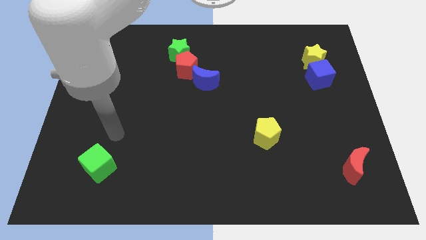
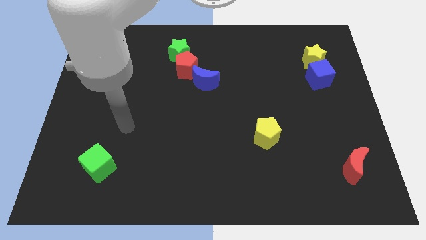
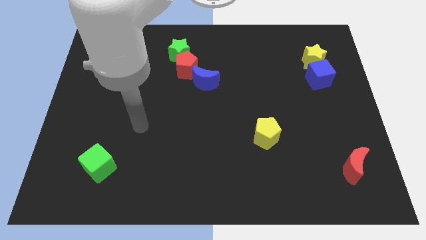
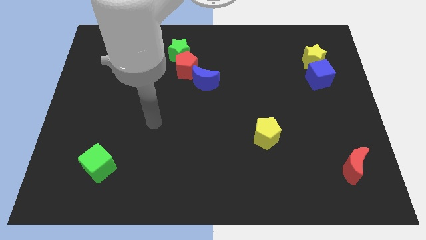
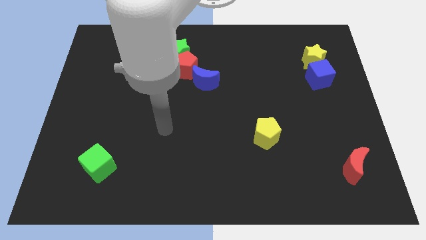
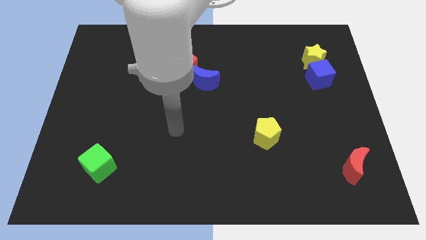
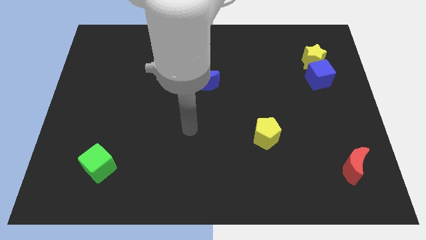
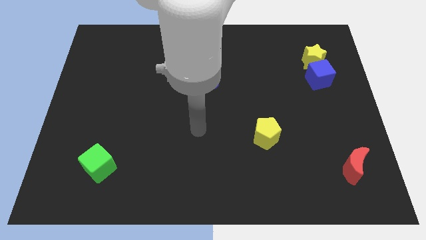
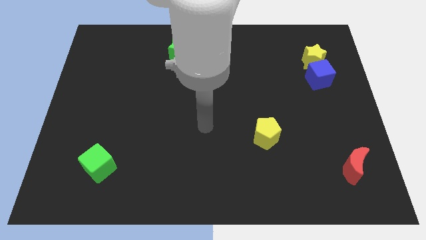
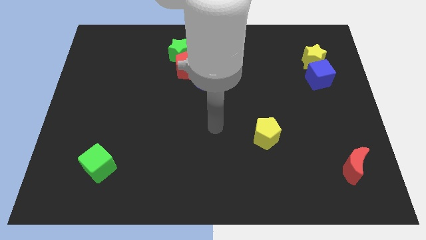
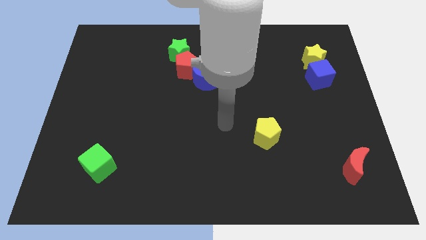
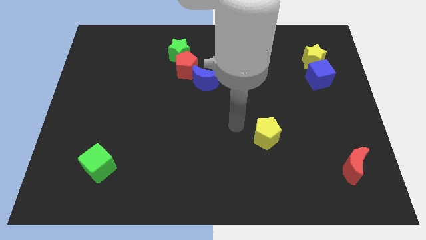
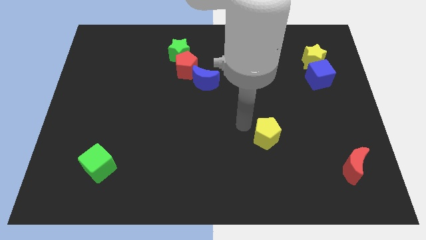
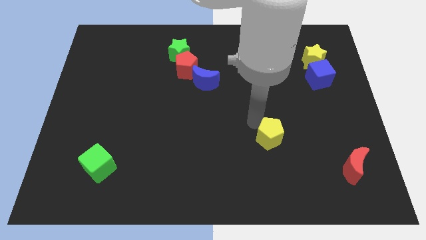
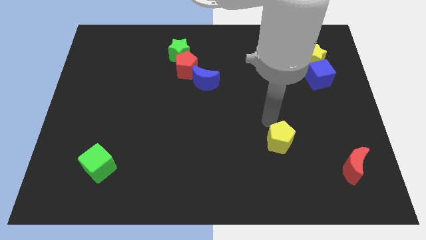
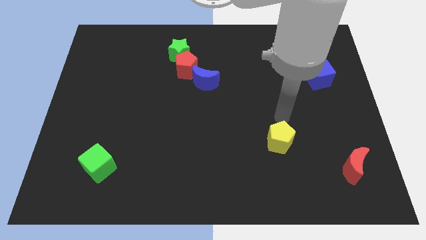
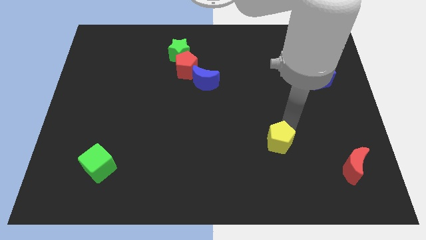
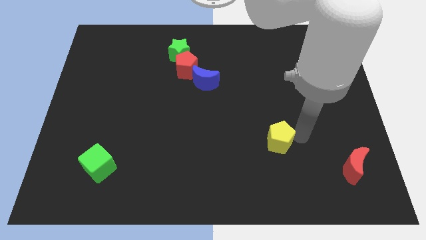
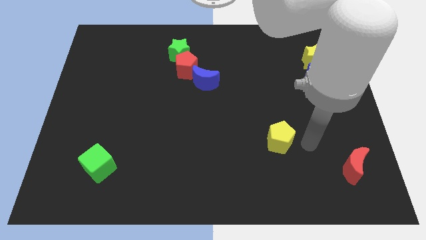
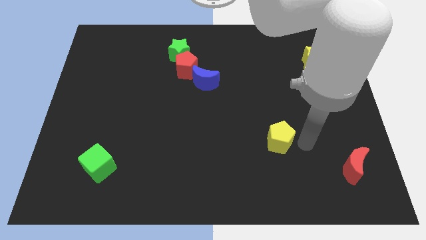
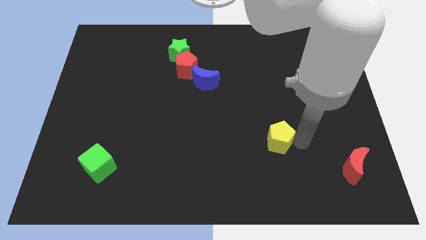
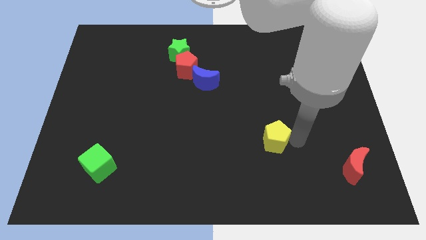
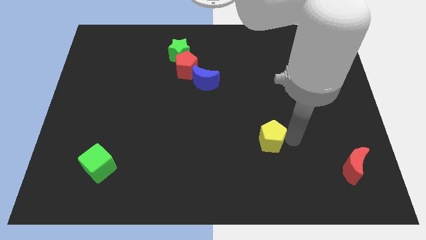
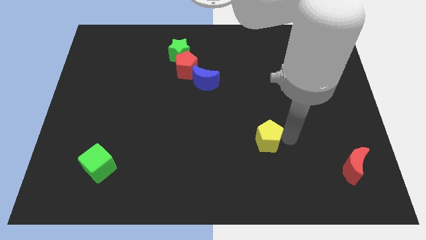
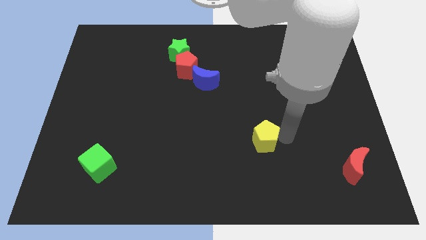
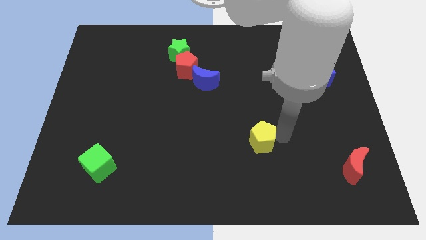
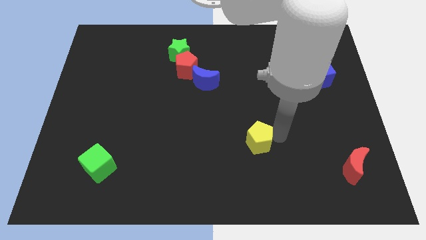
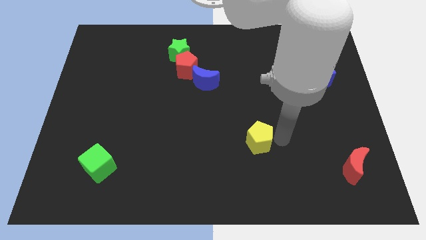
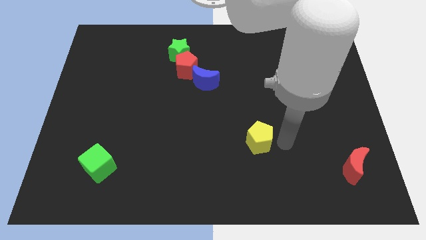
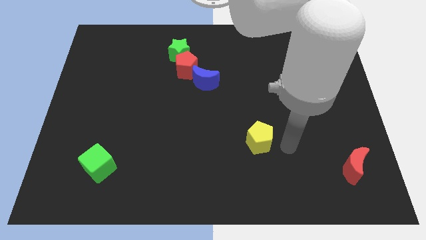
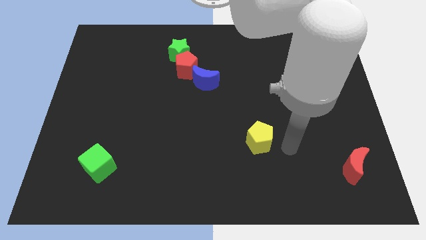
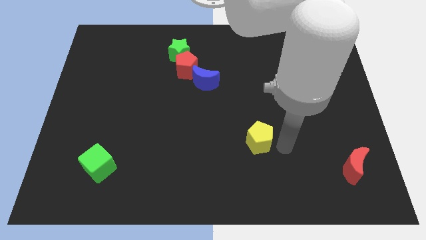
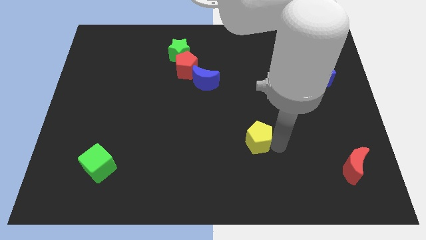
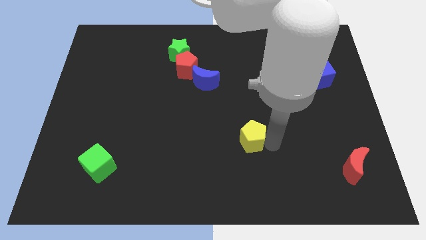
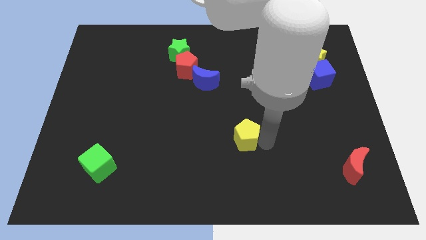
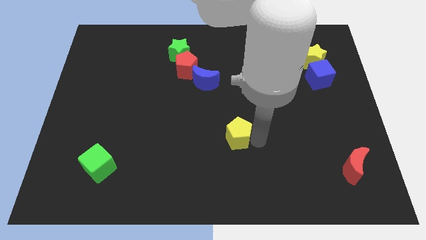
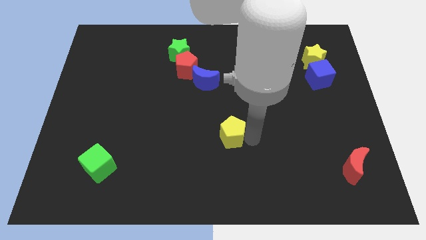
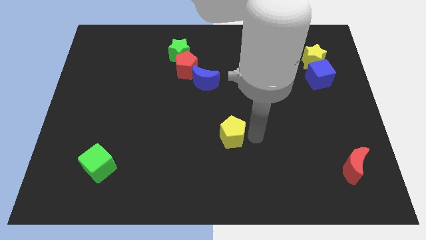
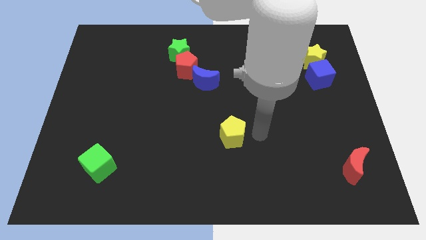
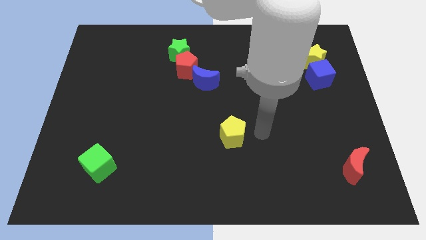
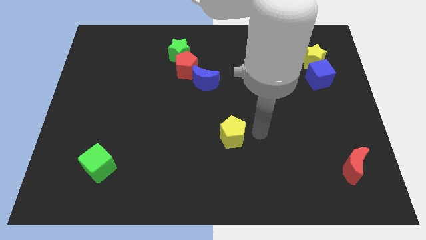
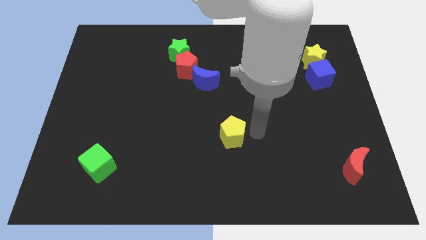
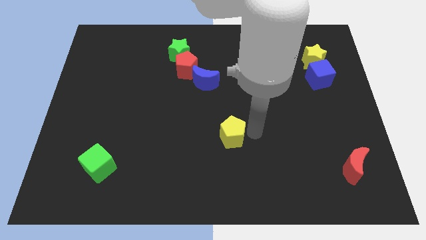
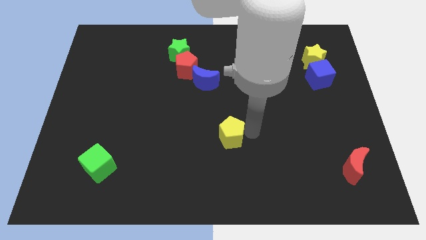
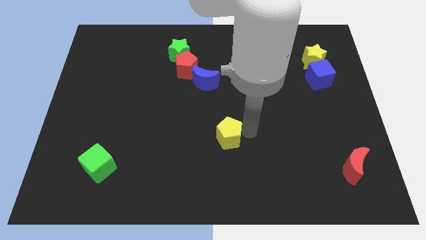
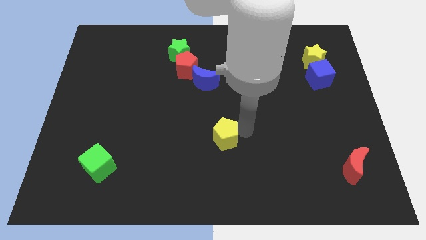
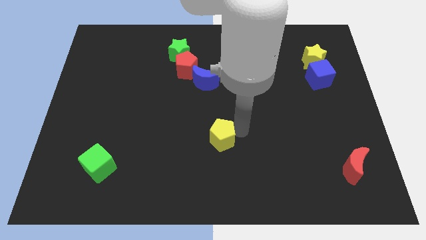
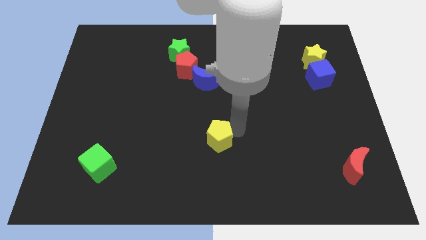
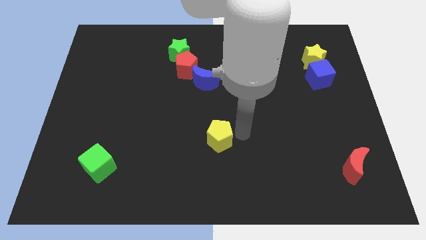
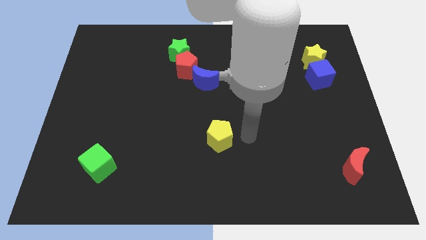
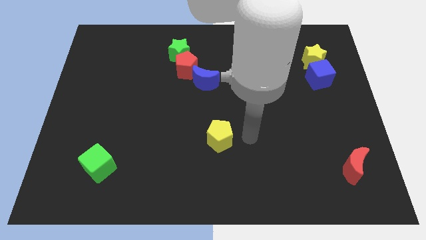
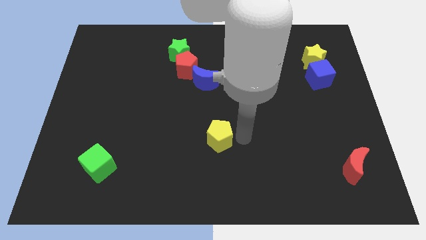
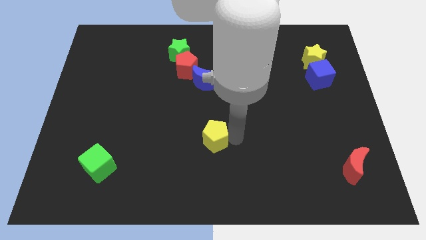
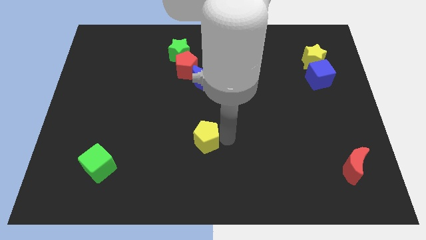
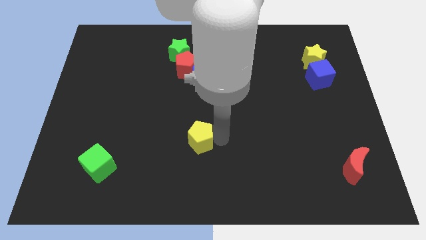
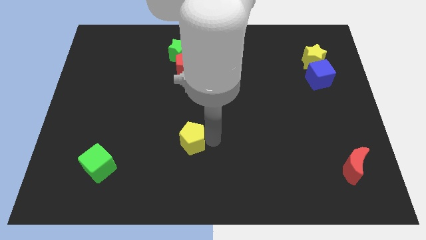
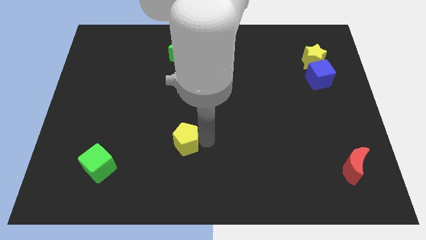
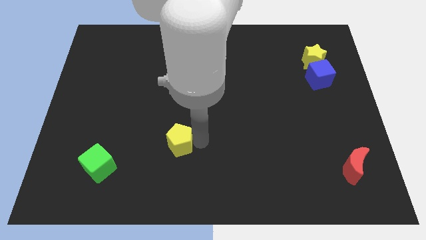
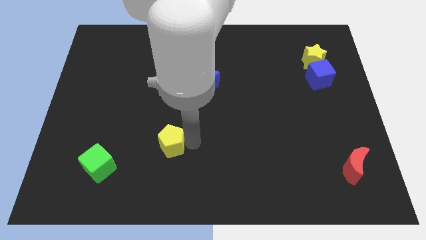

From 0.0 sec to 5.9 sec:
move the yellow pentagon to the left

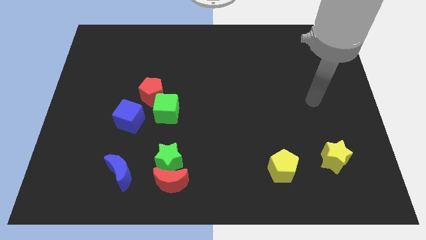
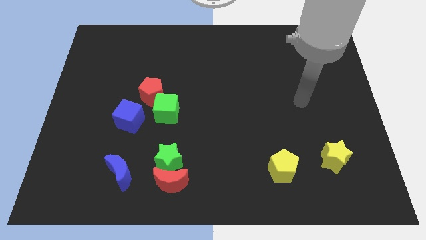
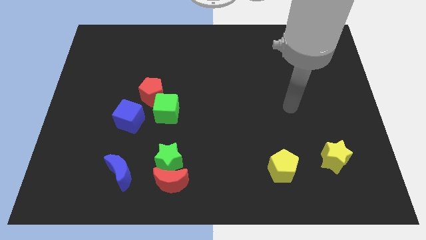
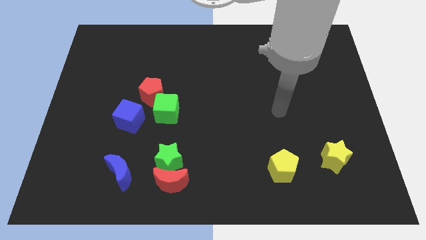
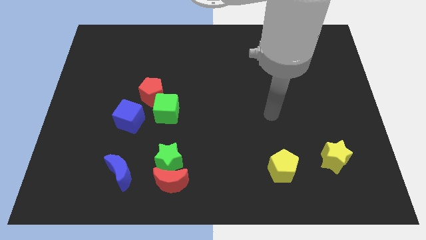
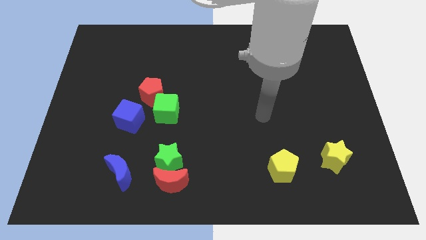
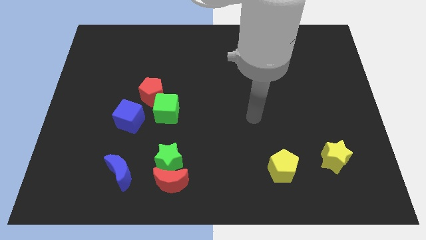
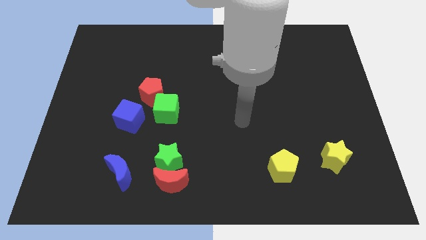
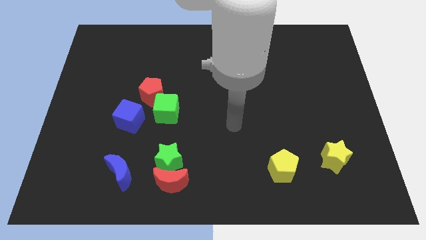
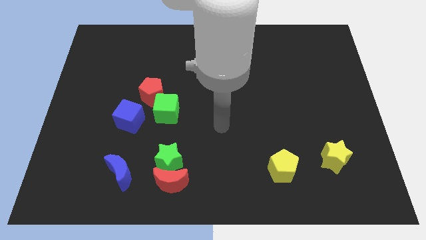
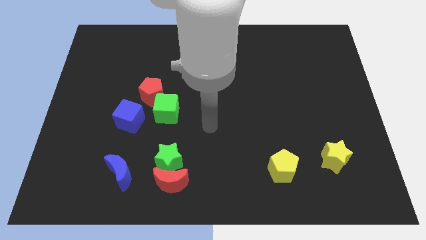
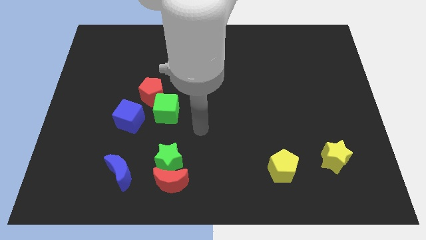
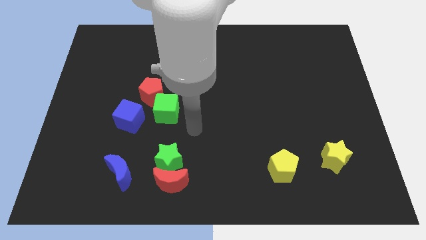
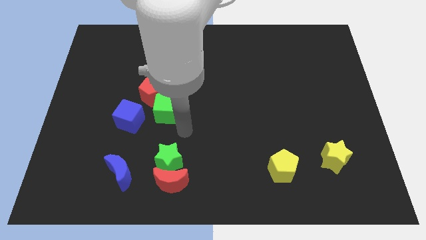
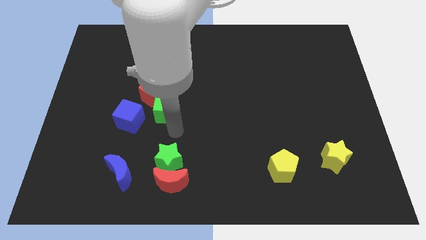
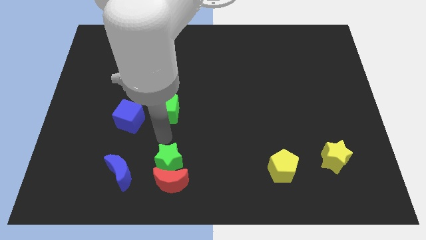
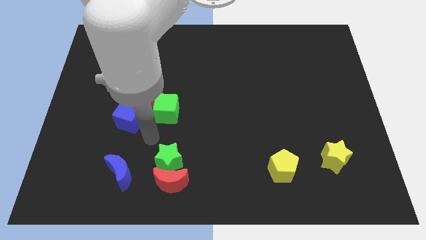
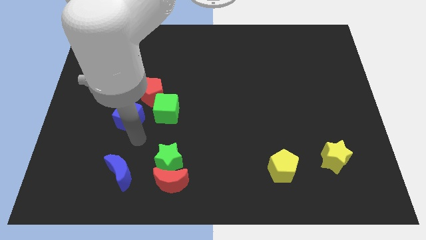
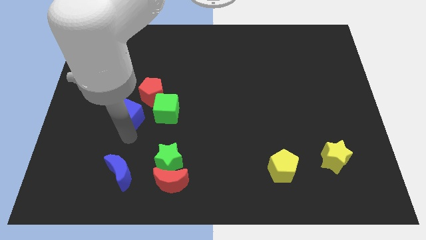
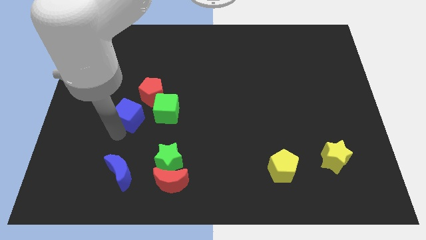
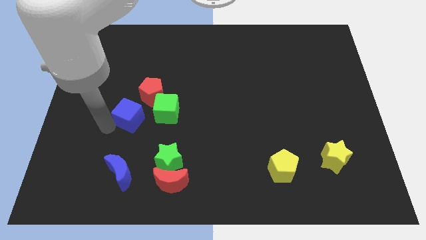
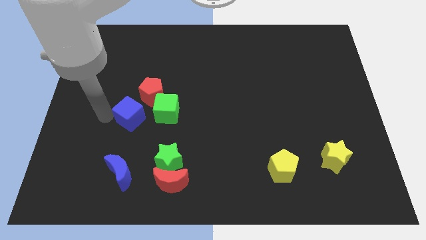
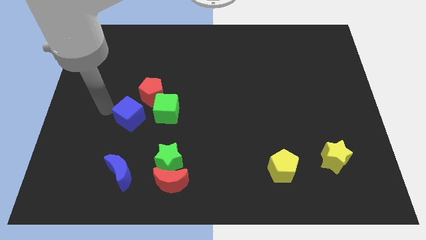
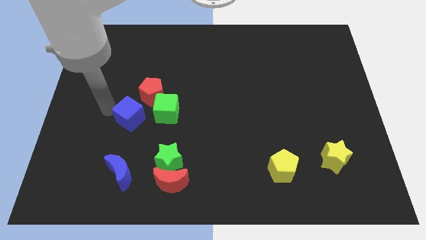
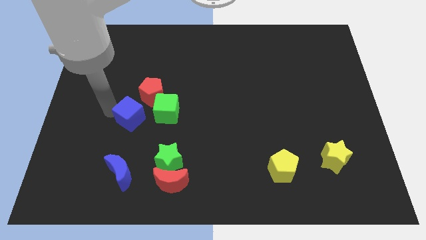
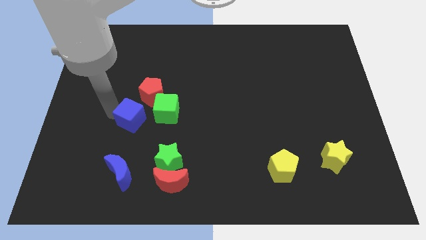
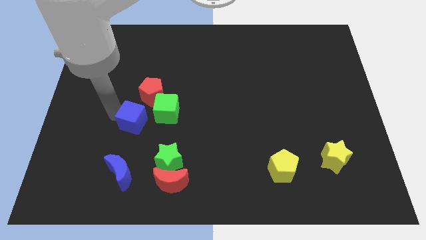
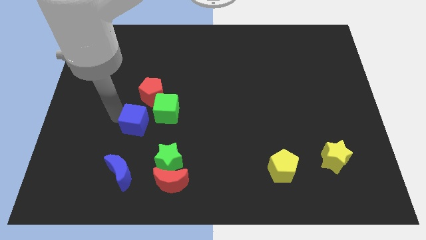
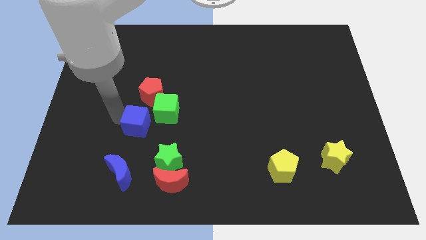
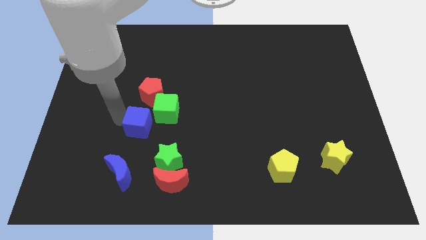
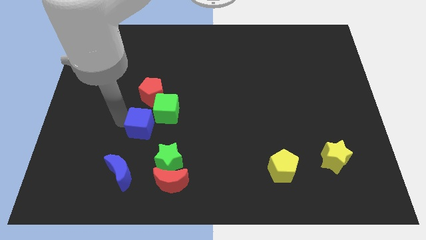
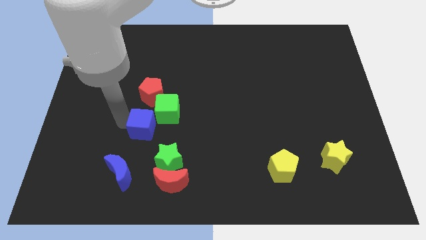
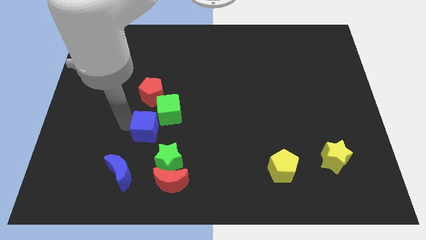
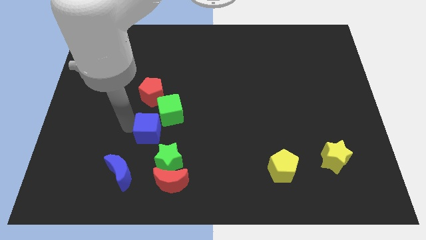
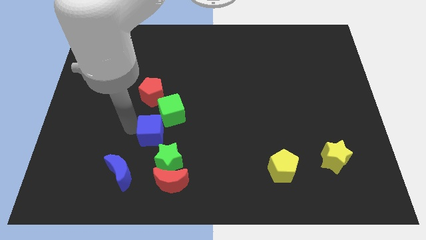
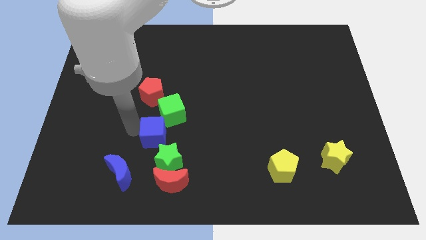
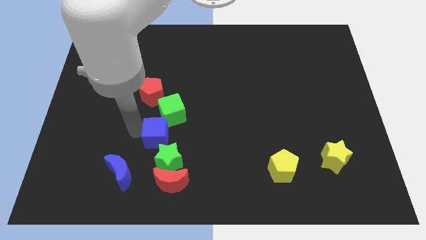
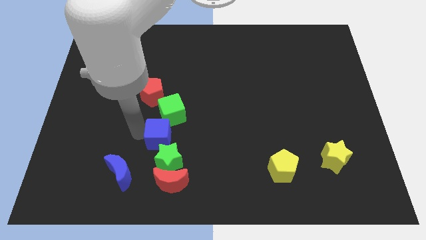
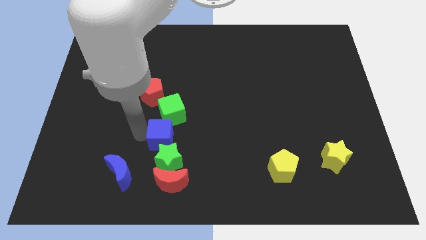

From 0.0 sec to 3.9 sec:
slide the blue cube to the right a little
